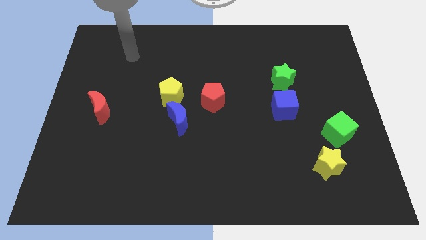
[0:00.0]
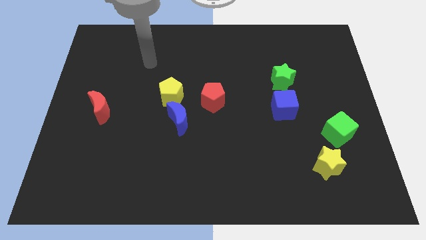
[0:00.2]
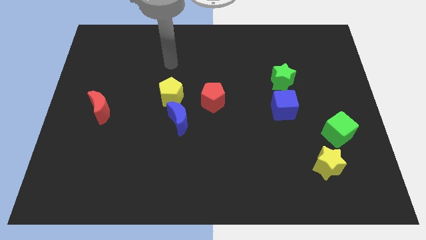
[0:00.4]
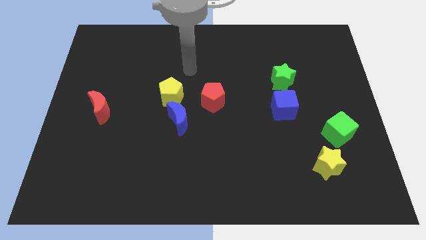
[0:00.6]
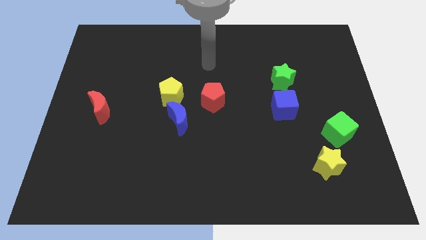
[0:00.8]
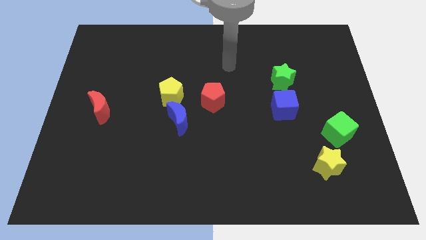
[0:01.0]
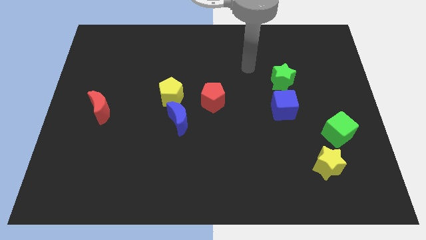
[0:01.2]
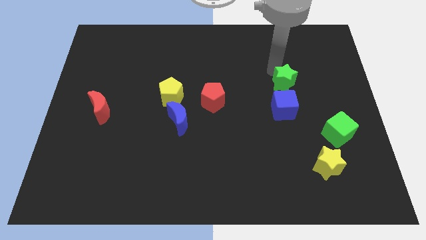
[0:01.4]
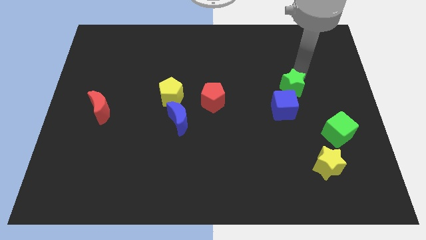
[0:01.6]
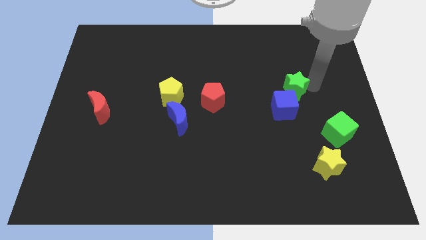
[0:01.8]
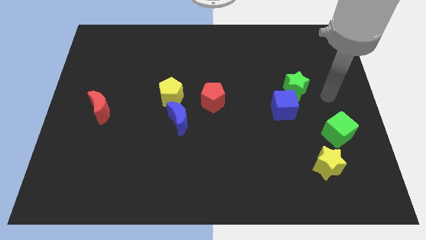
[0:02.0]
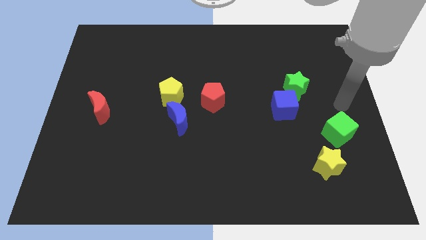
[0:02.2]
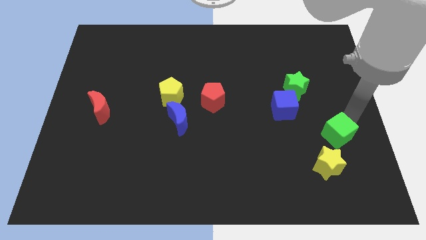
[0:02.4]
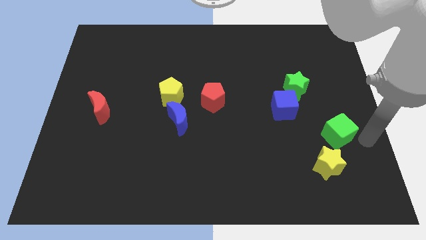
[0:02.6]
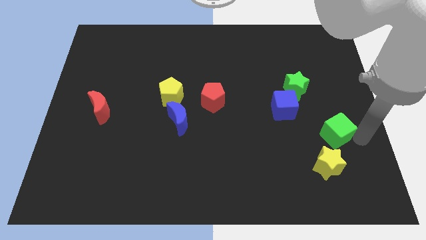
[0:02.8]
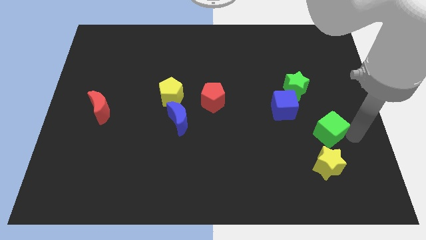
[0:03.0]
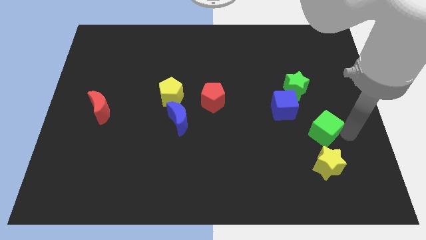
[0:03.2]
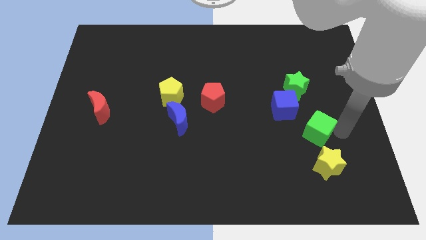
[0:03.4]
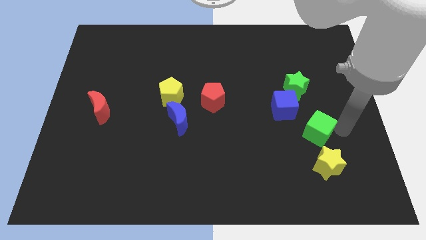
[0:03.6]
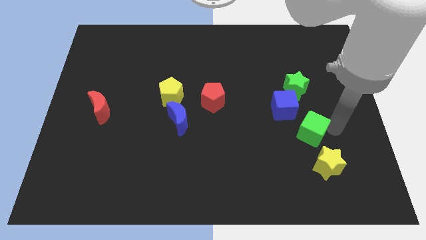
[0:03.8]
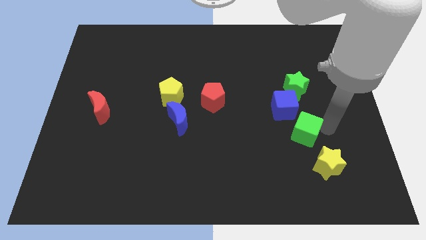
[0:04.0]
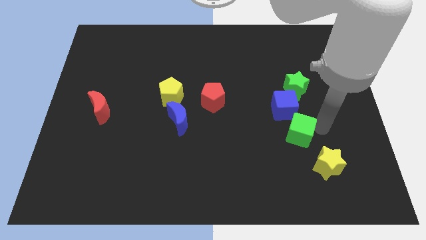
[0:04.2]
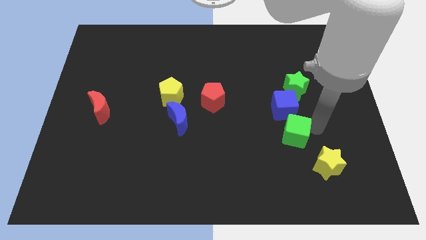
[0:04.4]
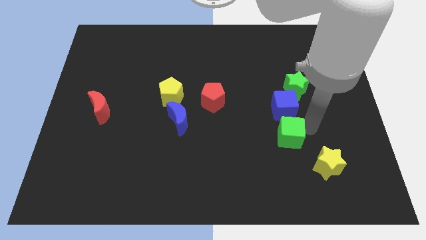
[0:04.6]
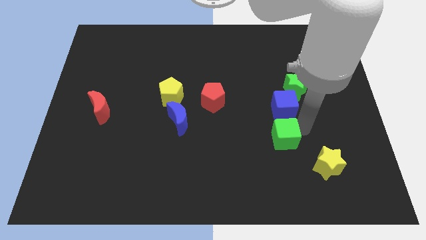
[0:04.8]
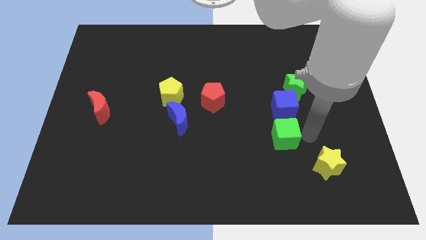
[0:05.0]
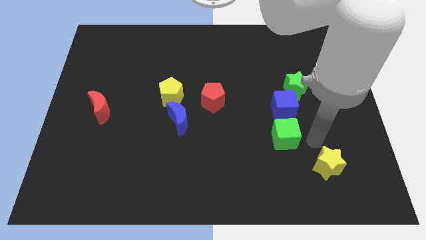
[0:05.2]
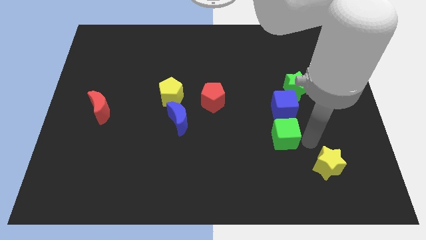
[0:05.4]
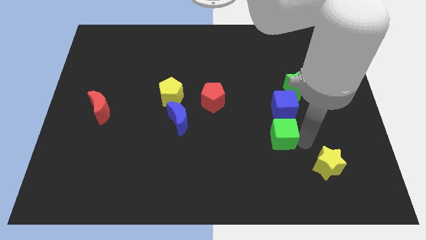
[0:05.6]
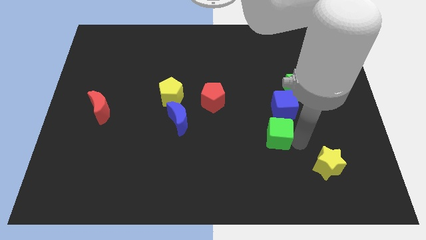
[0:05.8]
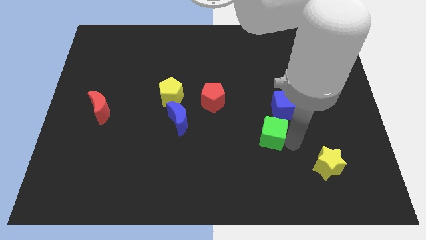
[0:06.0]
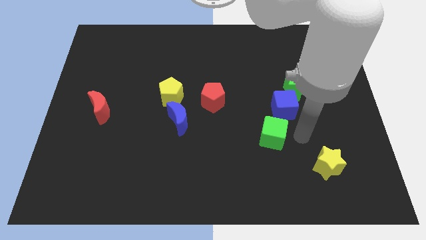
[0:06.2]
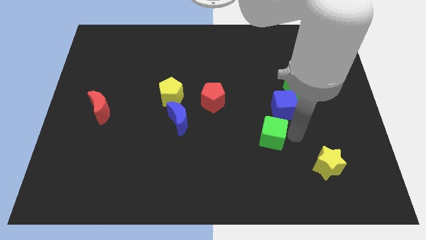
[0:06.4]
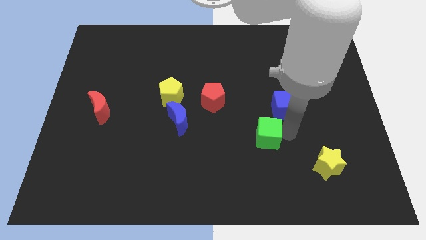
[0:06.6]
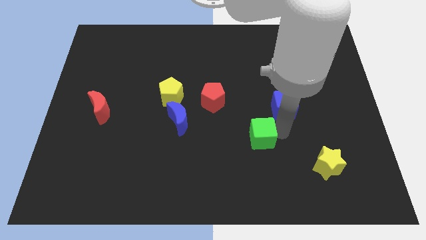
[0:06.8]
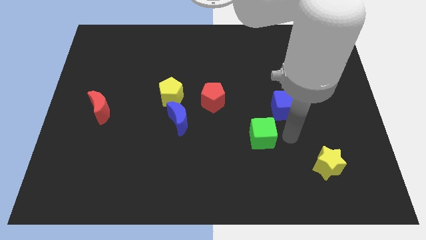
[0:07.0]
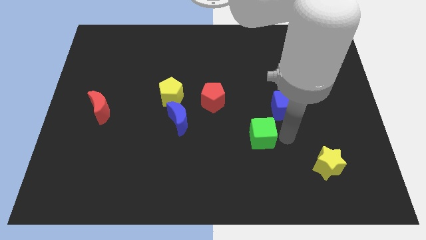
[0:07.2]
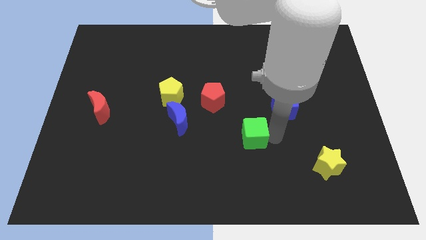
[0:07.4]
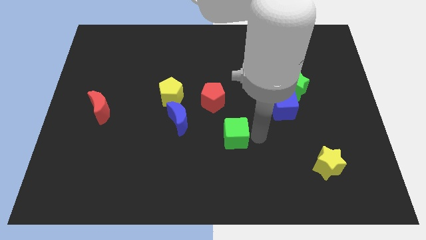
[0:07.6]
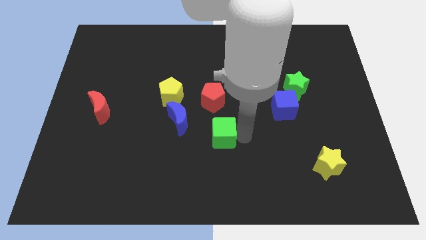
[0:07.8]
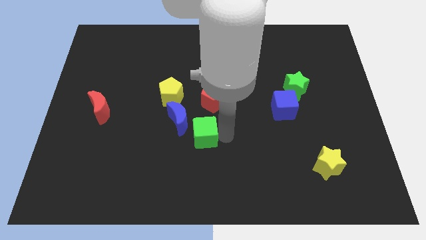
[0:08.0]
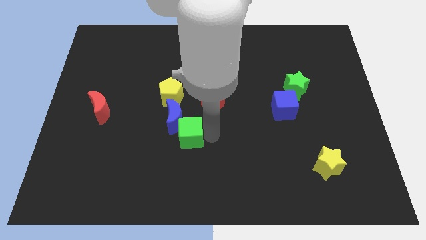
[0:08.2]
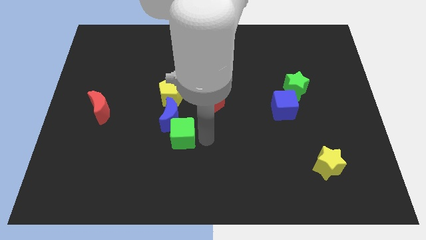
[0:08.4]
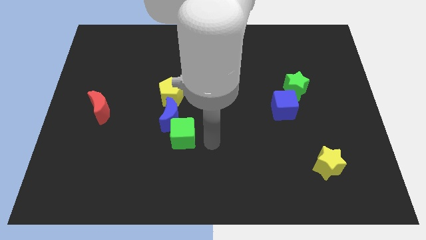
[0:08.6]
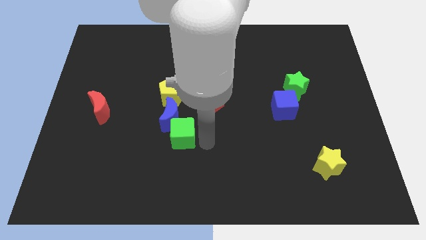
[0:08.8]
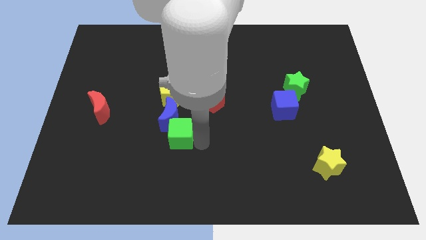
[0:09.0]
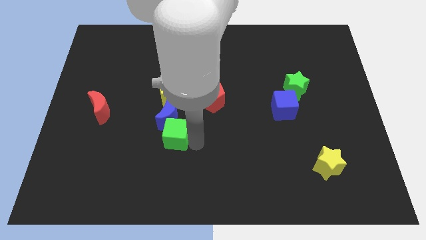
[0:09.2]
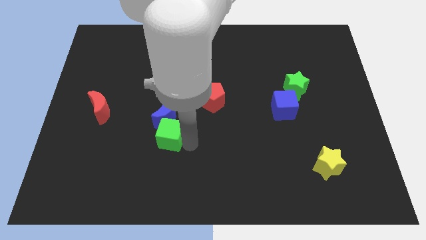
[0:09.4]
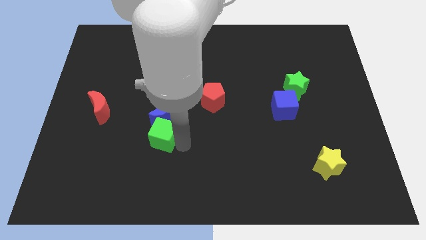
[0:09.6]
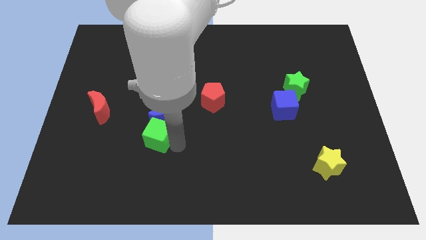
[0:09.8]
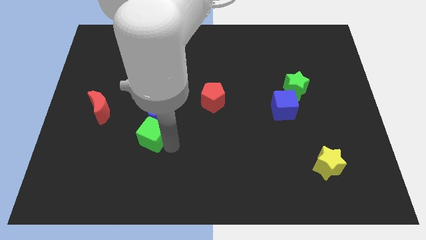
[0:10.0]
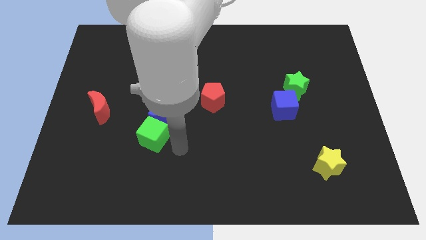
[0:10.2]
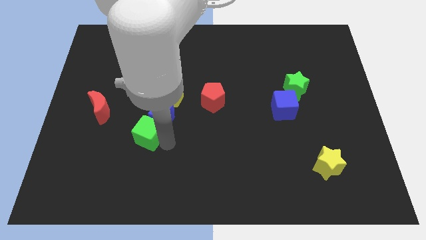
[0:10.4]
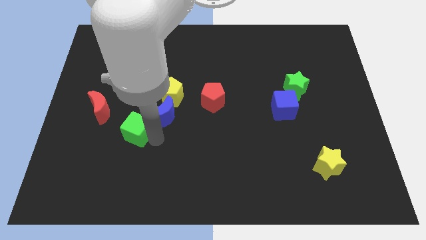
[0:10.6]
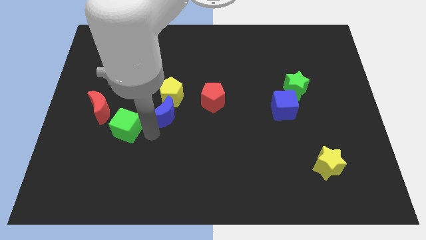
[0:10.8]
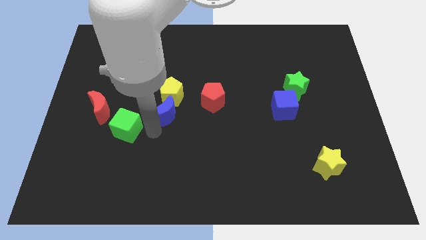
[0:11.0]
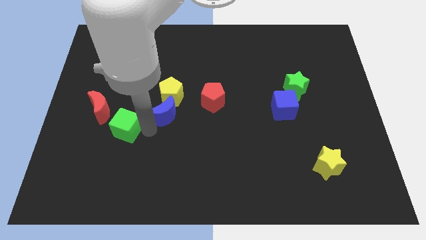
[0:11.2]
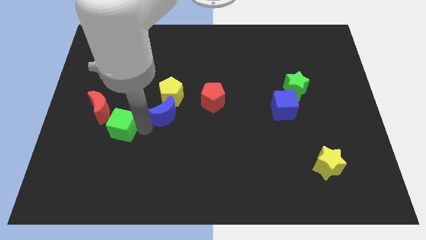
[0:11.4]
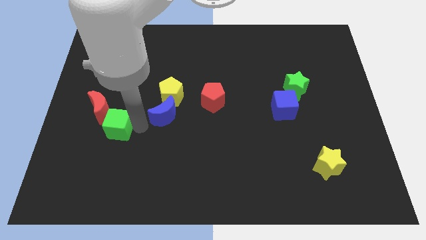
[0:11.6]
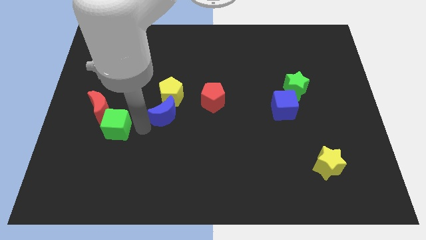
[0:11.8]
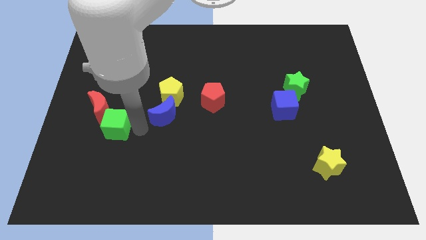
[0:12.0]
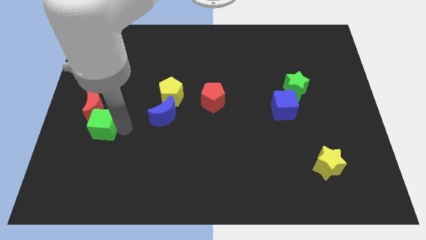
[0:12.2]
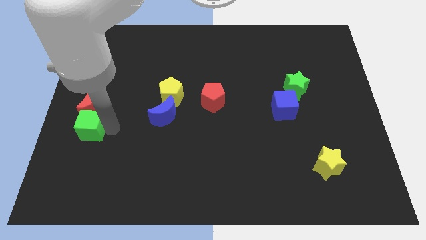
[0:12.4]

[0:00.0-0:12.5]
put the green cube to the left side
